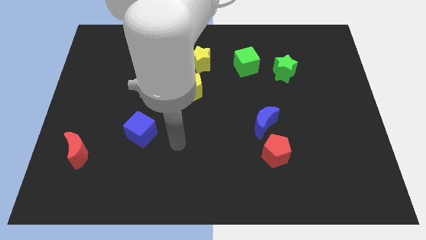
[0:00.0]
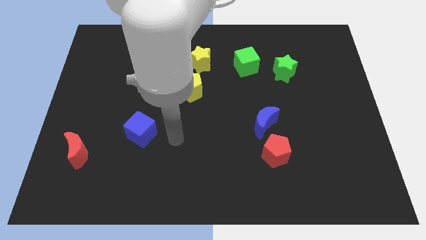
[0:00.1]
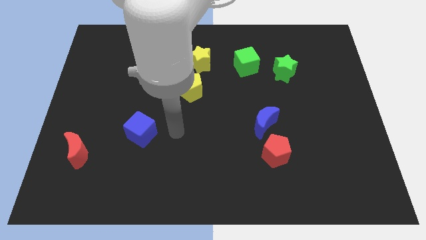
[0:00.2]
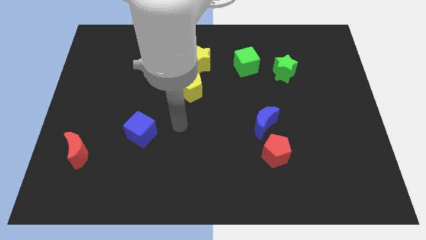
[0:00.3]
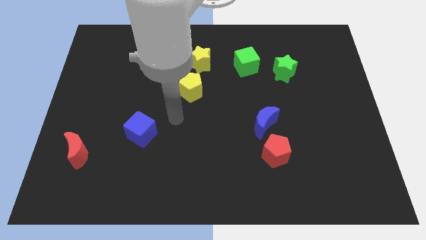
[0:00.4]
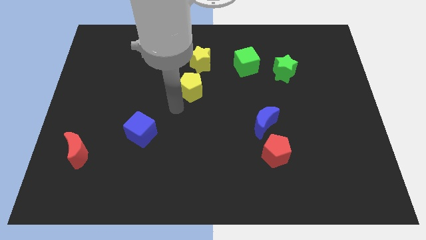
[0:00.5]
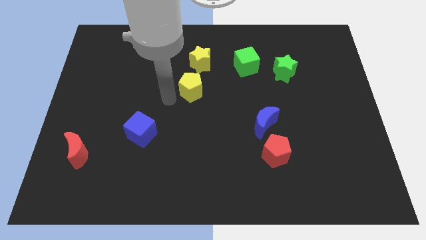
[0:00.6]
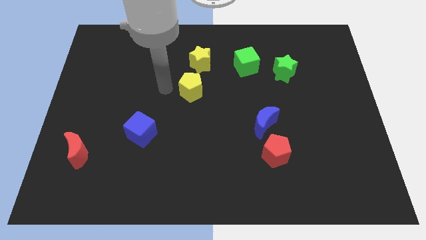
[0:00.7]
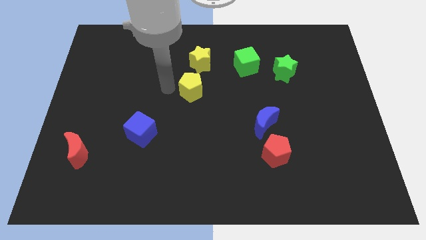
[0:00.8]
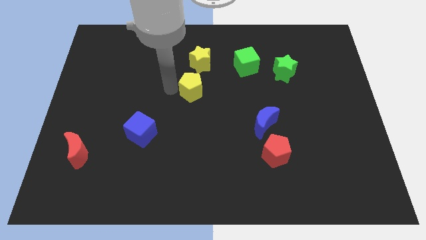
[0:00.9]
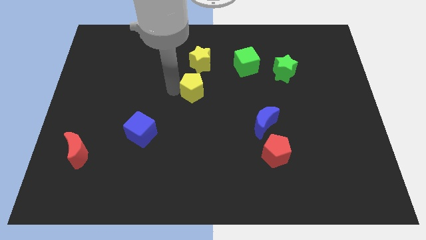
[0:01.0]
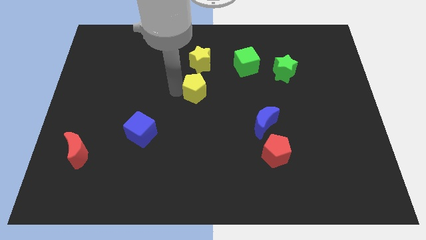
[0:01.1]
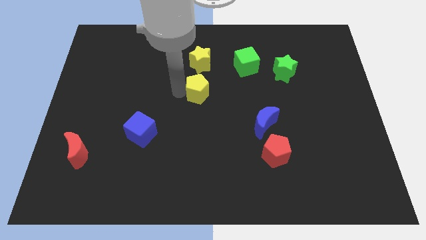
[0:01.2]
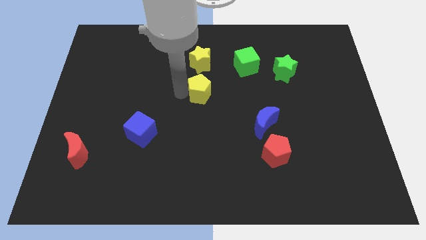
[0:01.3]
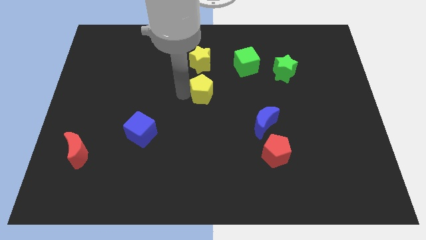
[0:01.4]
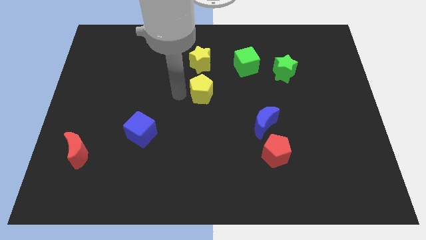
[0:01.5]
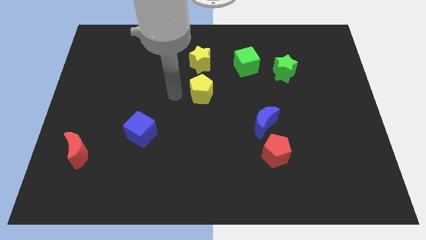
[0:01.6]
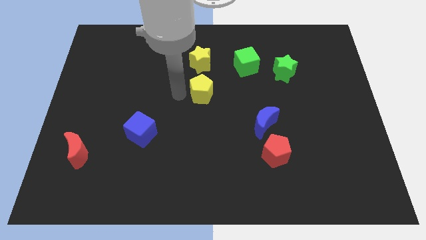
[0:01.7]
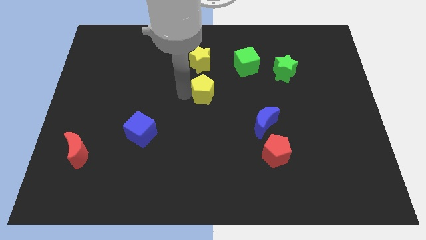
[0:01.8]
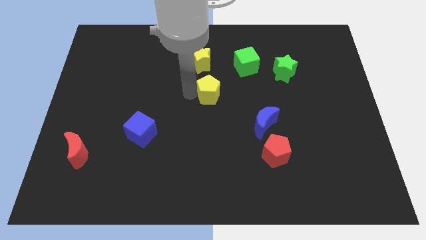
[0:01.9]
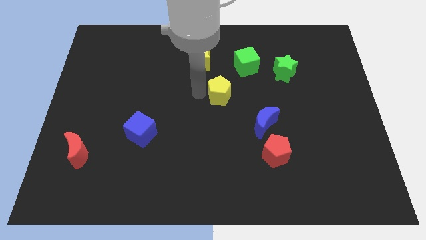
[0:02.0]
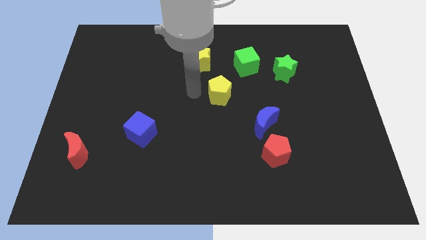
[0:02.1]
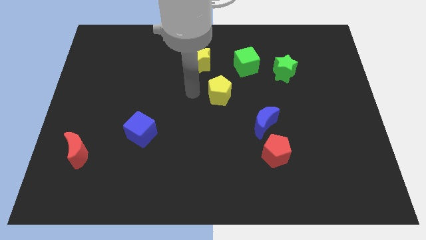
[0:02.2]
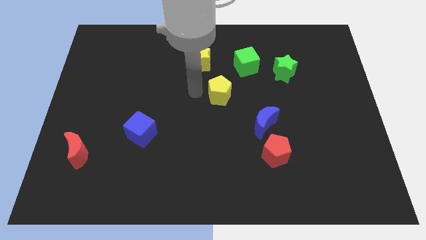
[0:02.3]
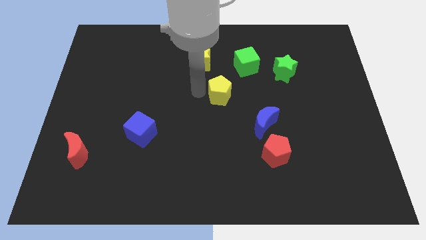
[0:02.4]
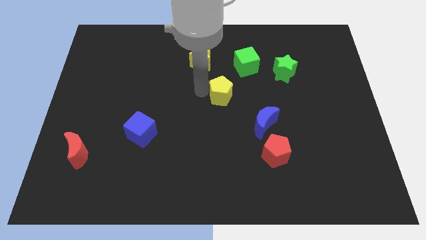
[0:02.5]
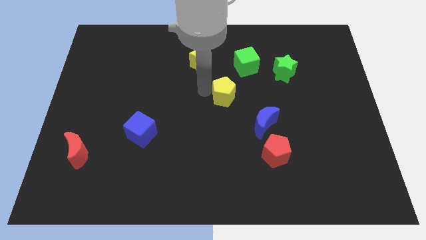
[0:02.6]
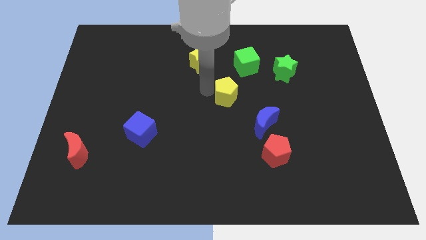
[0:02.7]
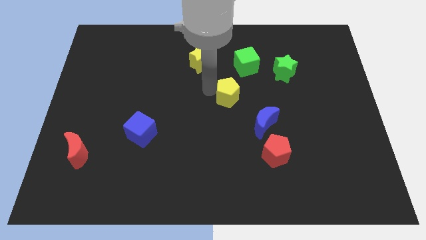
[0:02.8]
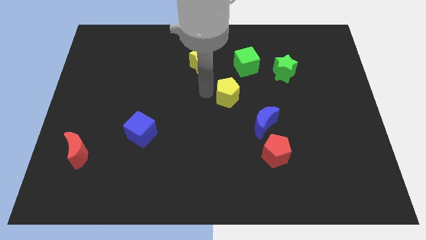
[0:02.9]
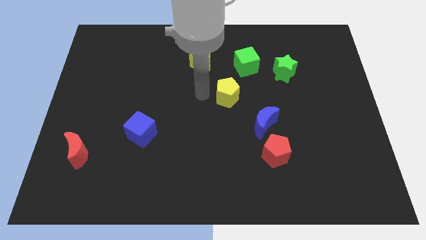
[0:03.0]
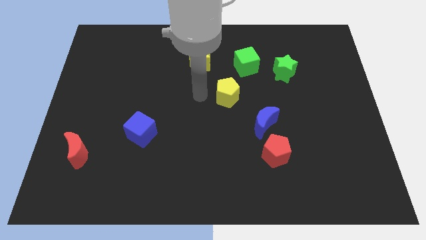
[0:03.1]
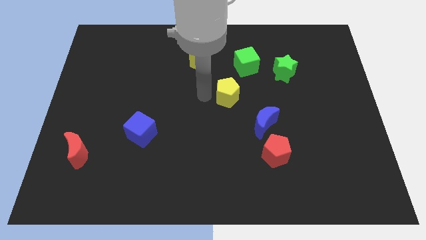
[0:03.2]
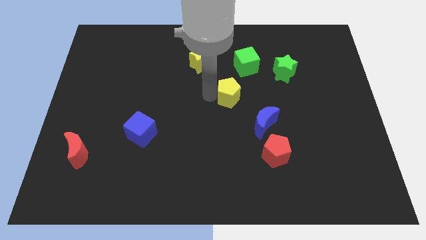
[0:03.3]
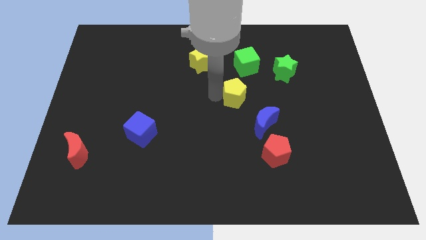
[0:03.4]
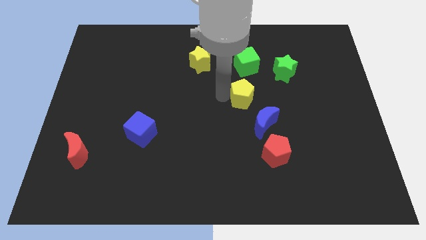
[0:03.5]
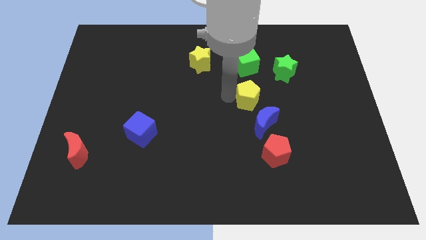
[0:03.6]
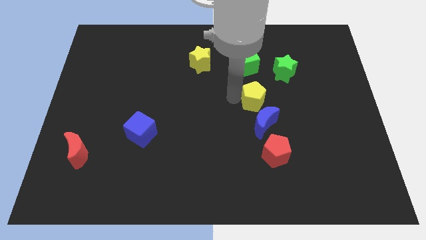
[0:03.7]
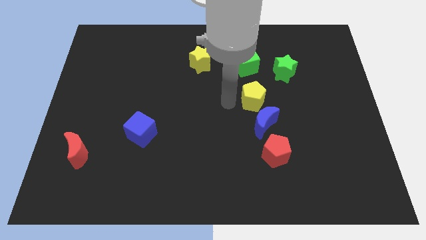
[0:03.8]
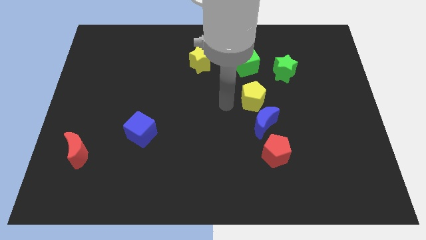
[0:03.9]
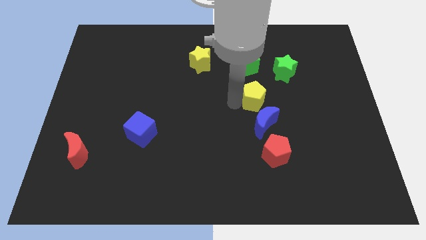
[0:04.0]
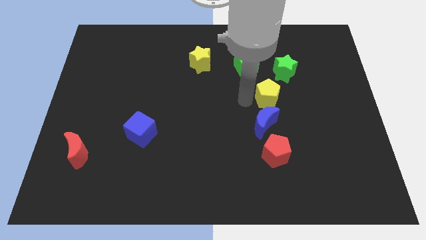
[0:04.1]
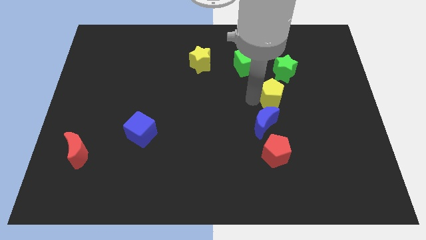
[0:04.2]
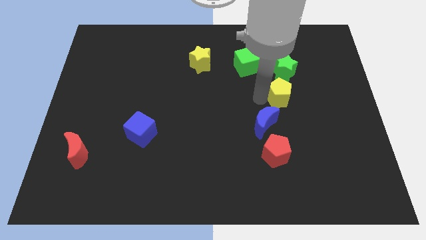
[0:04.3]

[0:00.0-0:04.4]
move the yellow pentagon right

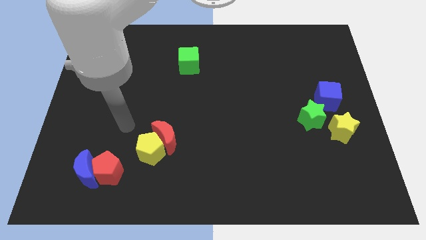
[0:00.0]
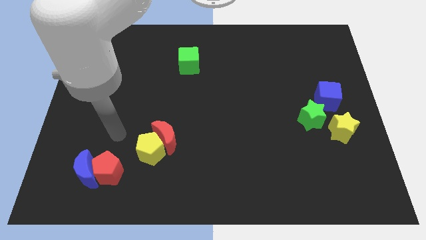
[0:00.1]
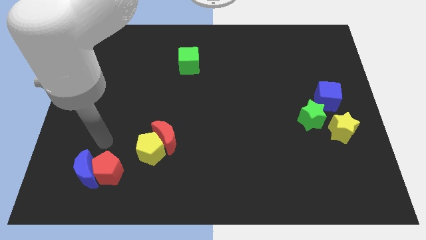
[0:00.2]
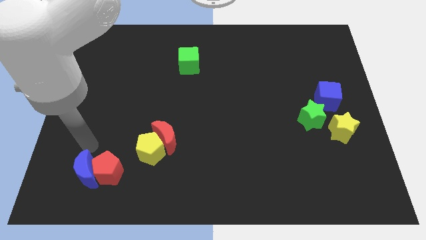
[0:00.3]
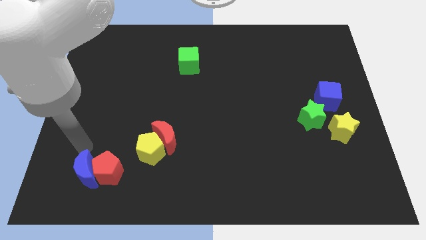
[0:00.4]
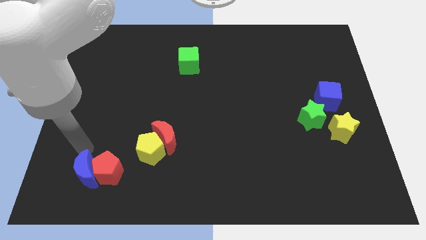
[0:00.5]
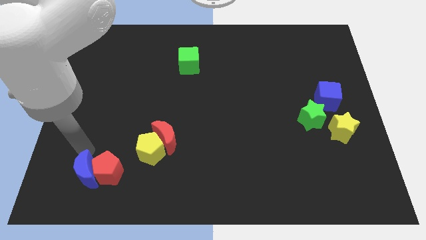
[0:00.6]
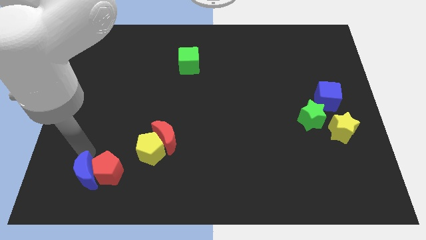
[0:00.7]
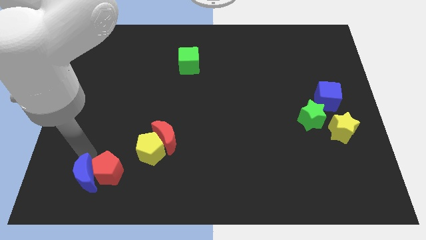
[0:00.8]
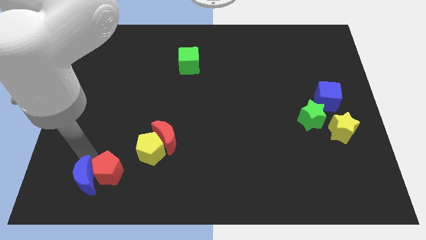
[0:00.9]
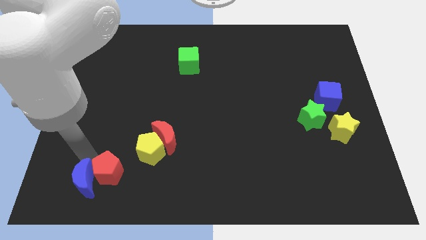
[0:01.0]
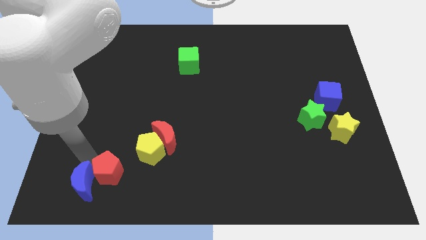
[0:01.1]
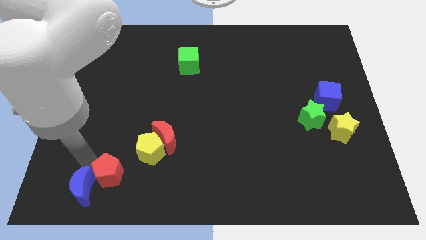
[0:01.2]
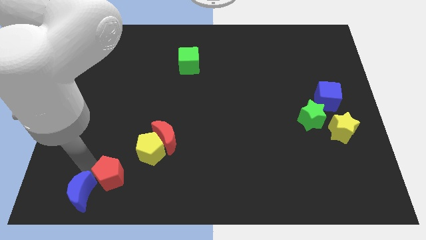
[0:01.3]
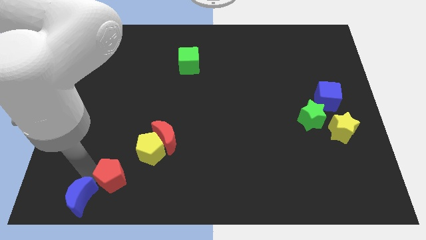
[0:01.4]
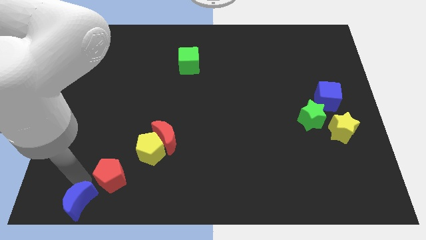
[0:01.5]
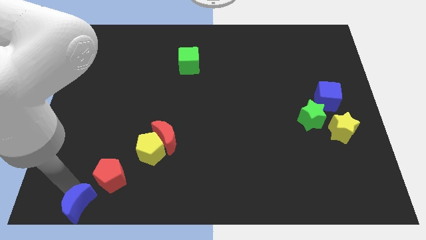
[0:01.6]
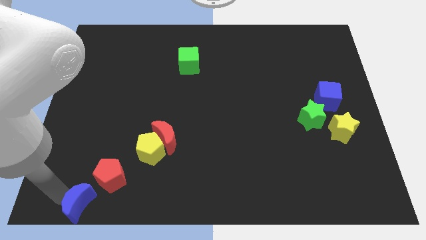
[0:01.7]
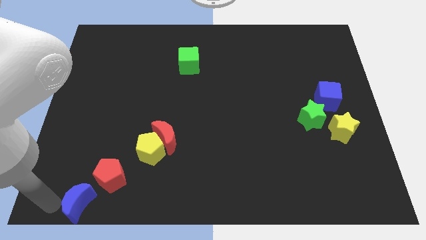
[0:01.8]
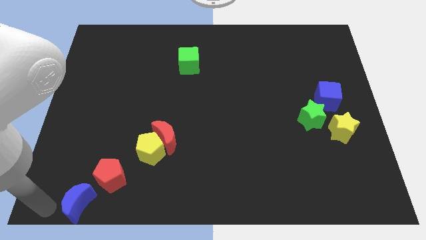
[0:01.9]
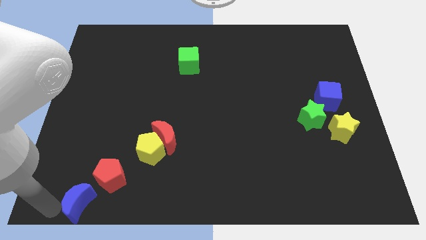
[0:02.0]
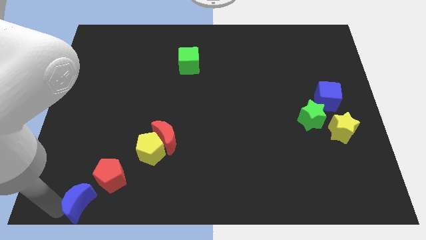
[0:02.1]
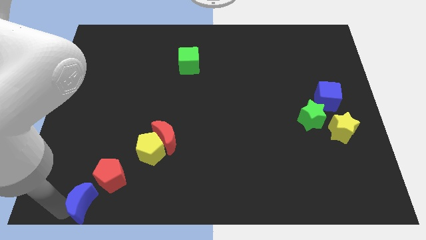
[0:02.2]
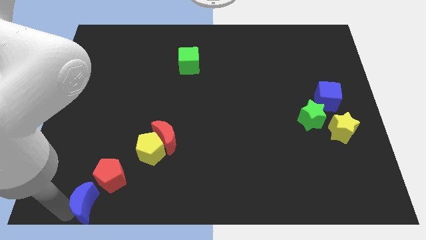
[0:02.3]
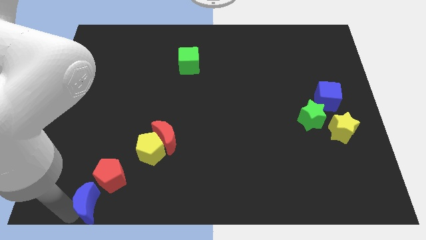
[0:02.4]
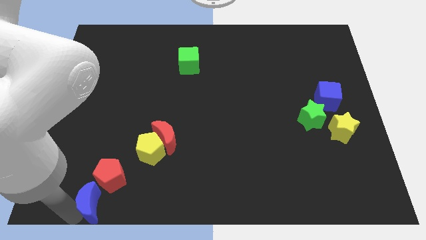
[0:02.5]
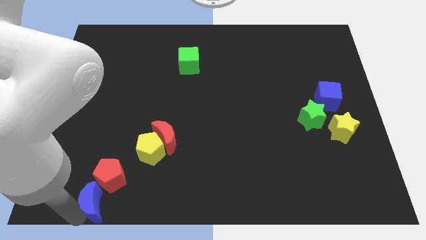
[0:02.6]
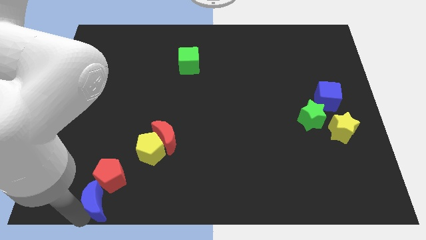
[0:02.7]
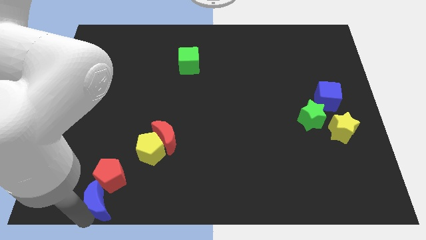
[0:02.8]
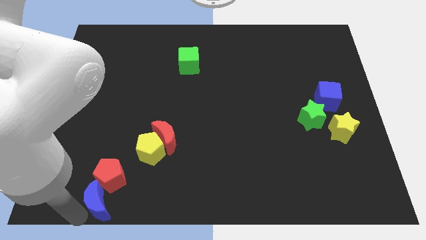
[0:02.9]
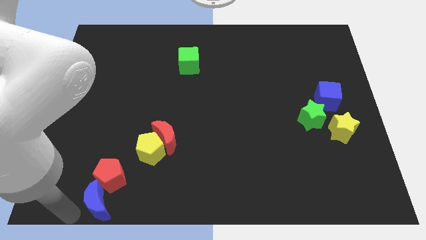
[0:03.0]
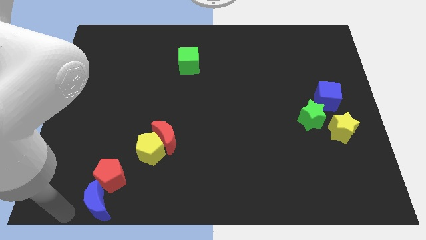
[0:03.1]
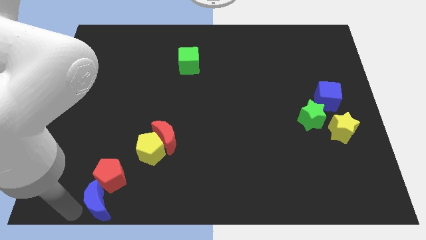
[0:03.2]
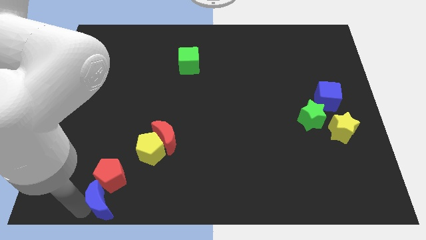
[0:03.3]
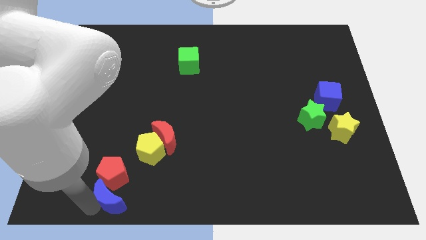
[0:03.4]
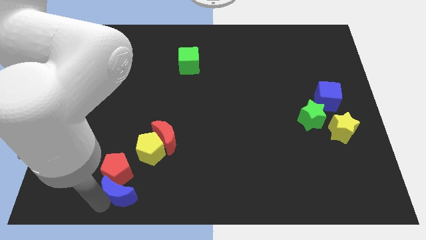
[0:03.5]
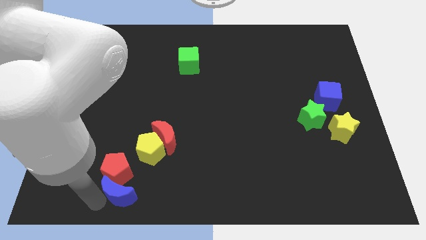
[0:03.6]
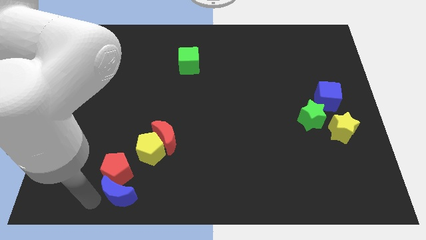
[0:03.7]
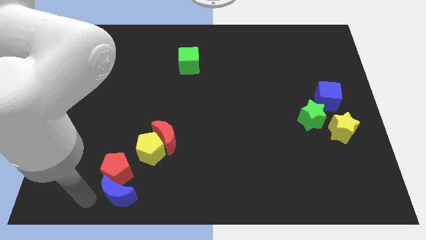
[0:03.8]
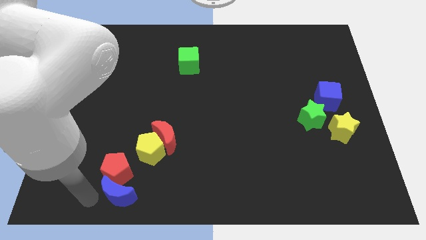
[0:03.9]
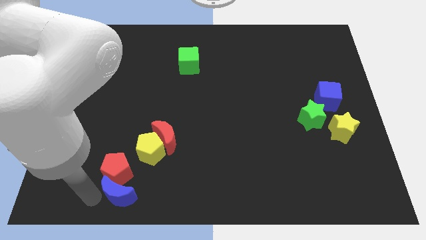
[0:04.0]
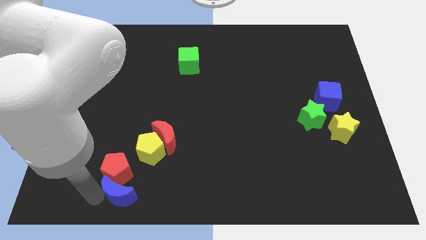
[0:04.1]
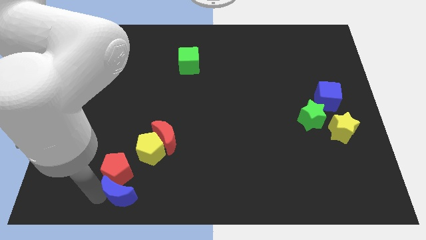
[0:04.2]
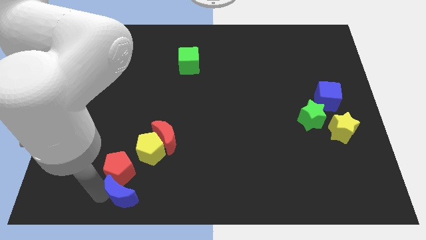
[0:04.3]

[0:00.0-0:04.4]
slide the blue moon to the right a little bit

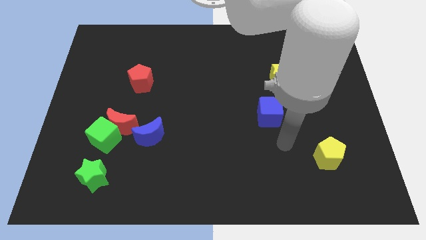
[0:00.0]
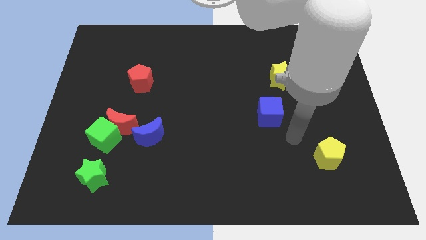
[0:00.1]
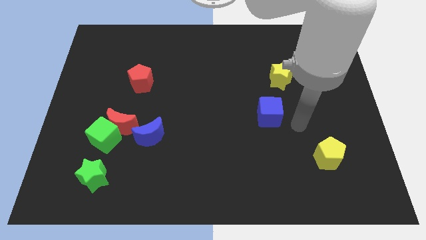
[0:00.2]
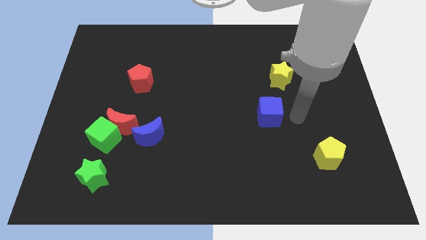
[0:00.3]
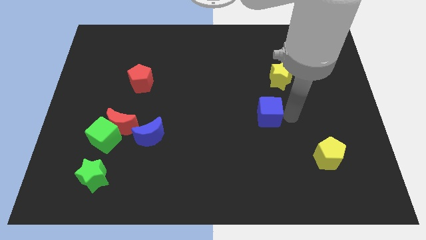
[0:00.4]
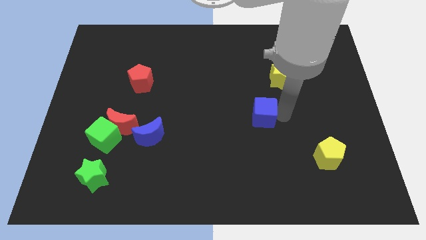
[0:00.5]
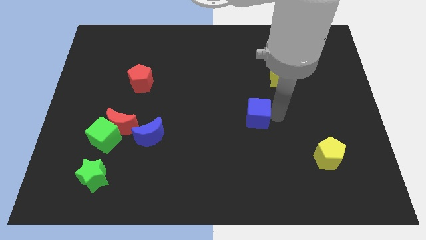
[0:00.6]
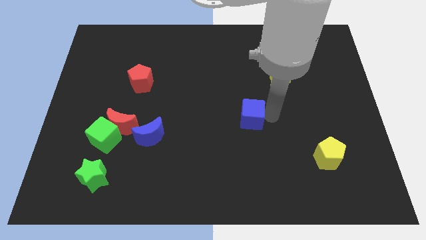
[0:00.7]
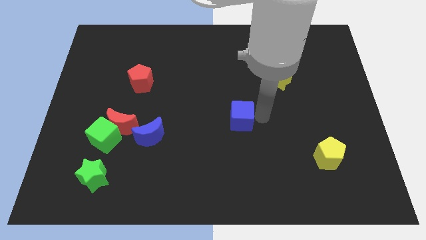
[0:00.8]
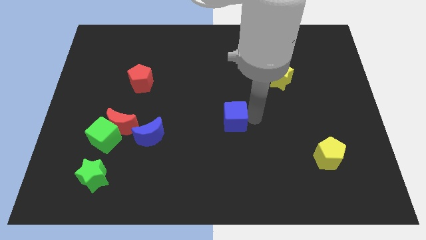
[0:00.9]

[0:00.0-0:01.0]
push the blue cube slightly left
